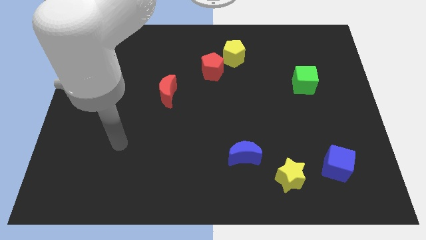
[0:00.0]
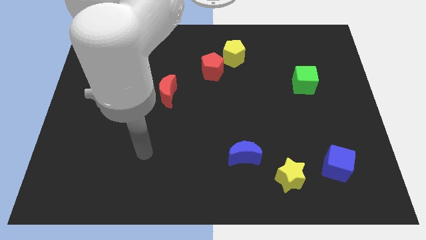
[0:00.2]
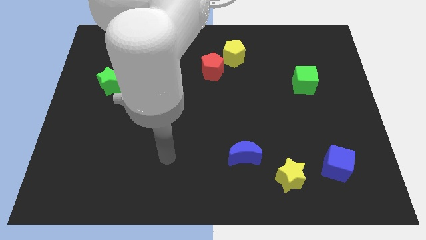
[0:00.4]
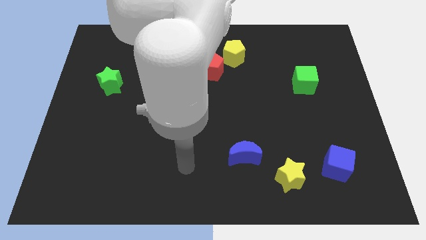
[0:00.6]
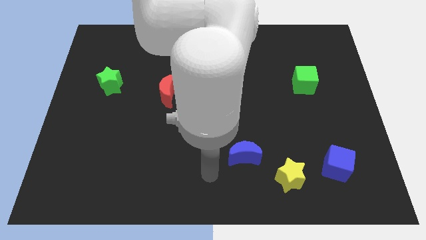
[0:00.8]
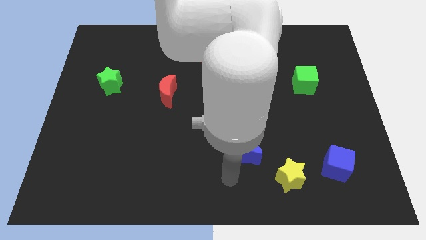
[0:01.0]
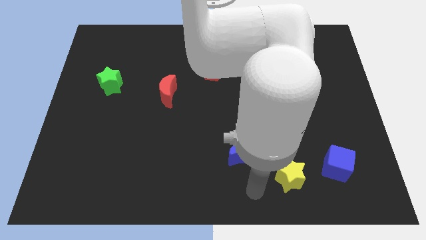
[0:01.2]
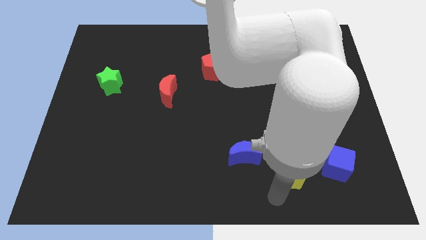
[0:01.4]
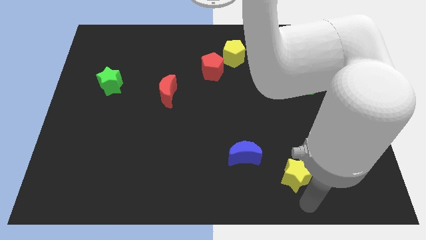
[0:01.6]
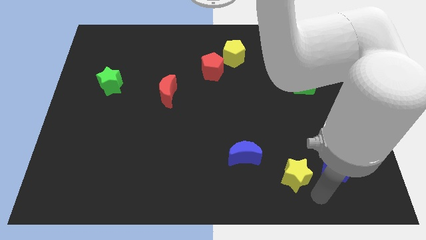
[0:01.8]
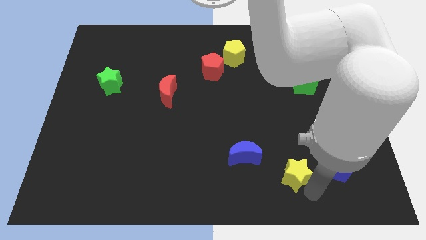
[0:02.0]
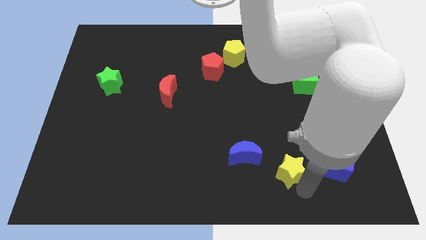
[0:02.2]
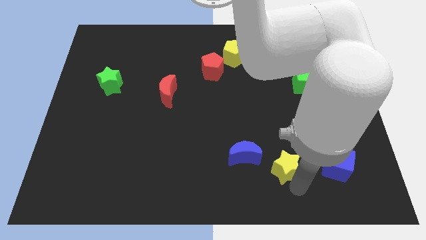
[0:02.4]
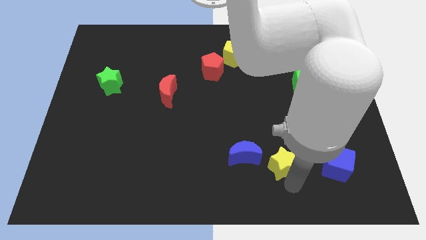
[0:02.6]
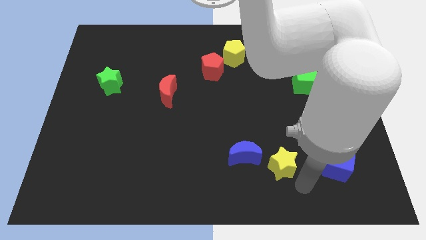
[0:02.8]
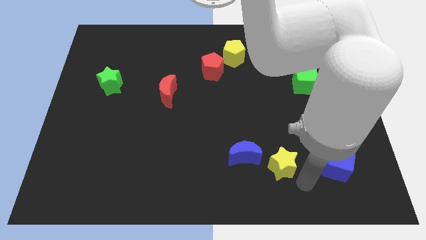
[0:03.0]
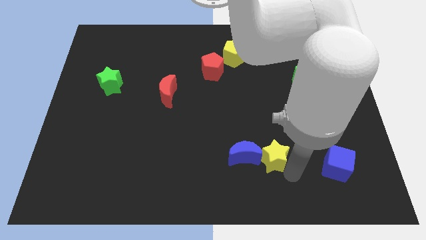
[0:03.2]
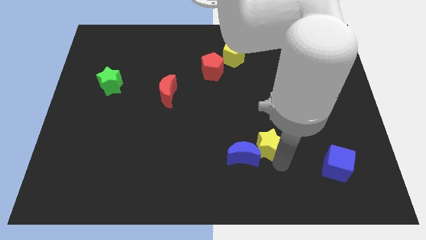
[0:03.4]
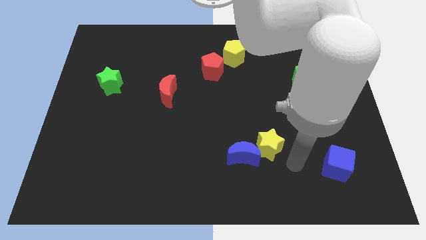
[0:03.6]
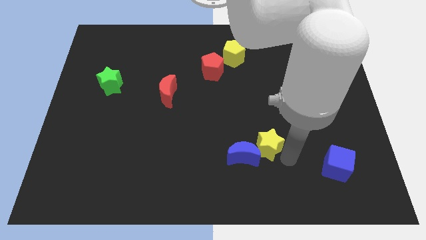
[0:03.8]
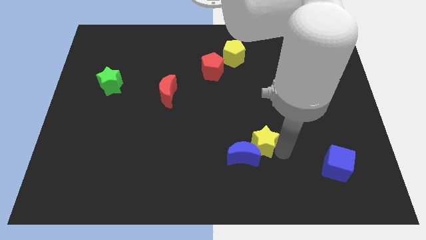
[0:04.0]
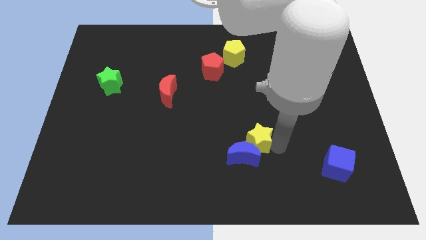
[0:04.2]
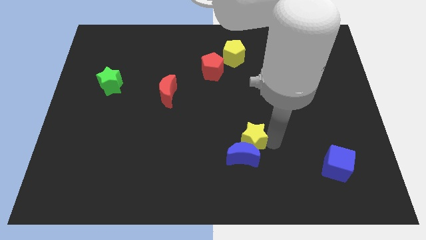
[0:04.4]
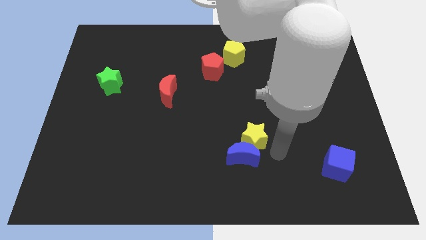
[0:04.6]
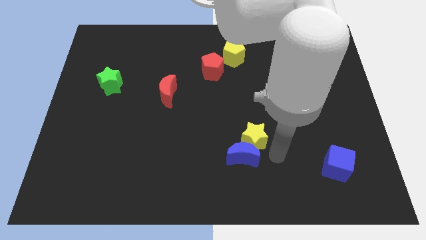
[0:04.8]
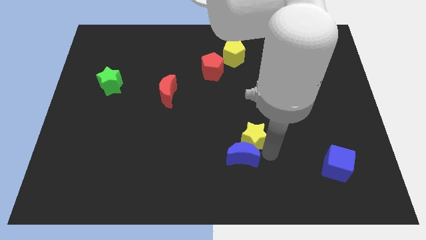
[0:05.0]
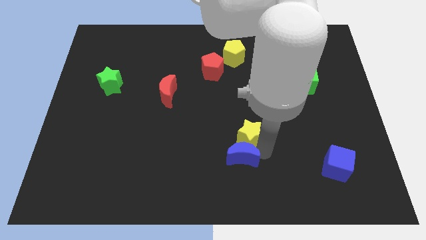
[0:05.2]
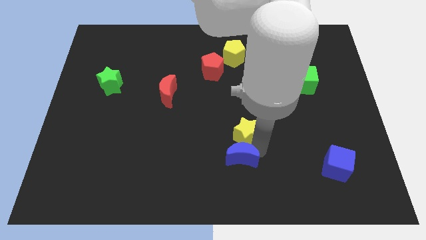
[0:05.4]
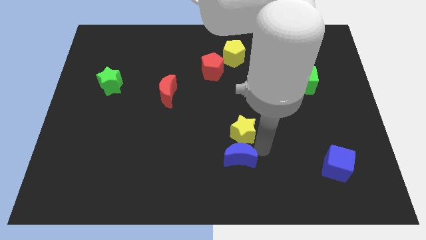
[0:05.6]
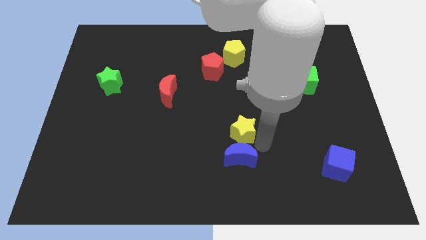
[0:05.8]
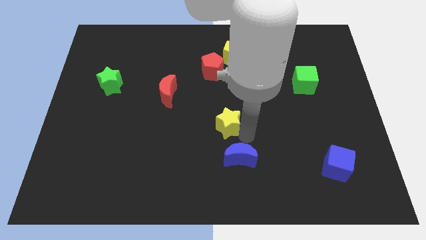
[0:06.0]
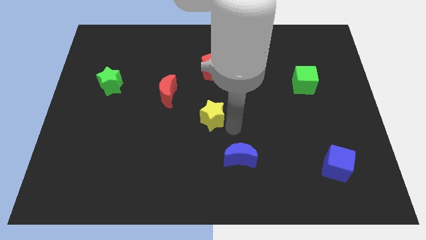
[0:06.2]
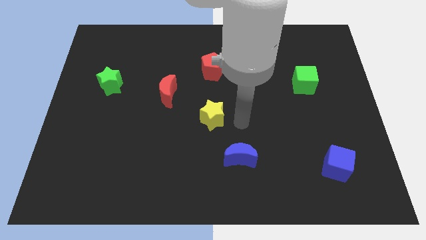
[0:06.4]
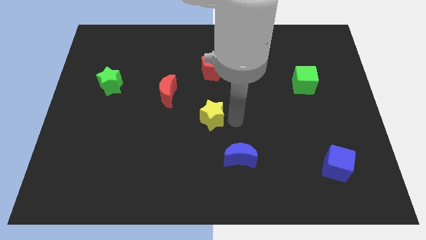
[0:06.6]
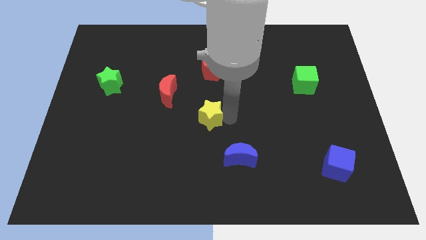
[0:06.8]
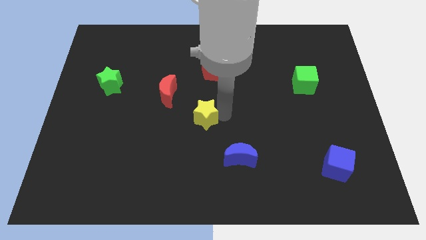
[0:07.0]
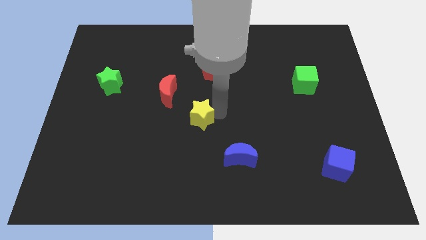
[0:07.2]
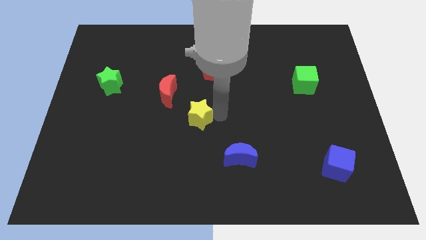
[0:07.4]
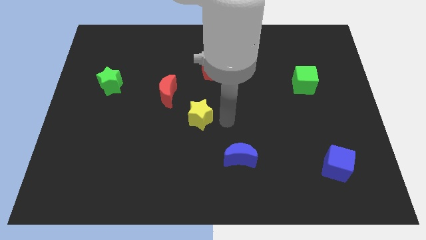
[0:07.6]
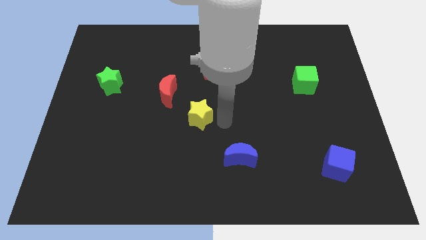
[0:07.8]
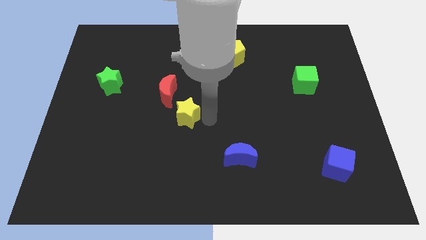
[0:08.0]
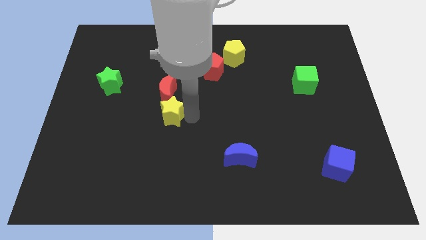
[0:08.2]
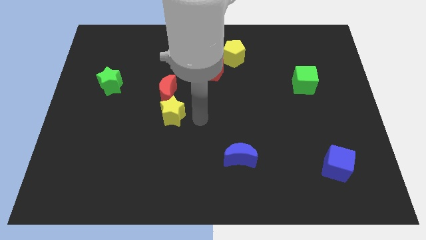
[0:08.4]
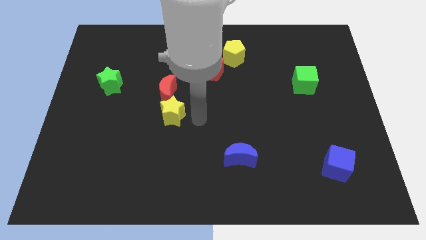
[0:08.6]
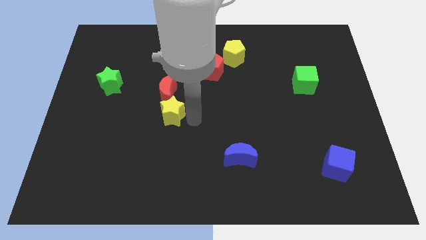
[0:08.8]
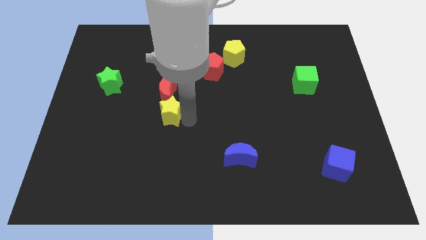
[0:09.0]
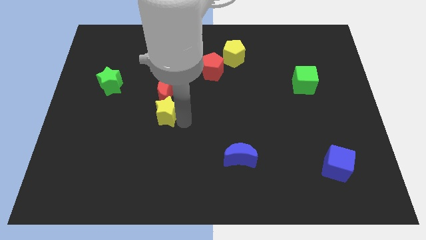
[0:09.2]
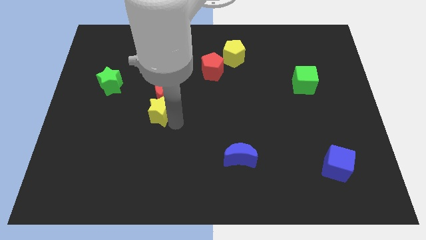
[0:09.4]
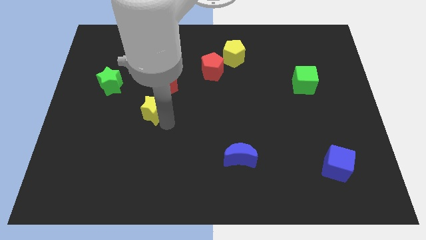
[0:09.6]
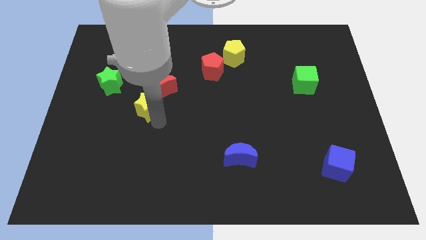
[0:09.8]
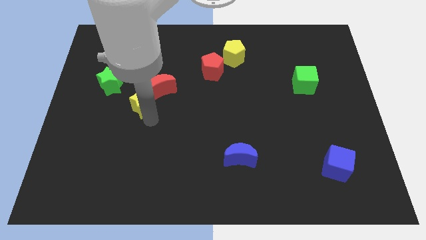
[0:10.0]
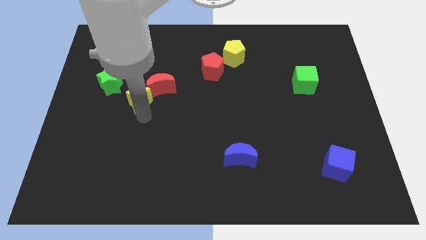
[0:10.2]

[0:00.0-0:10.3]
slide the yellow star just left of the red moon

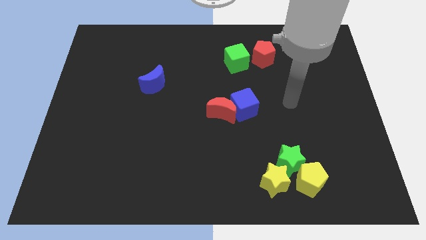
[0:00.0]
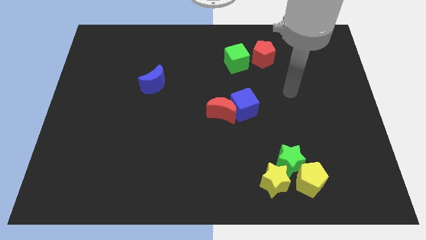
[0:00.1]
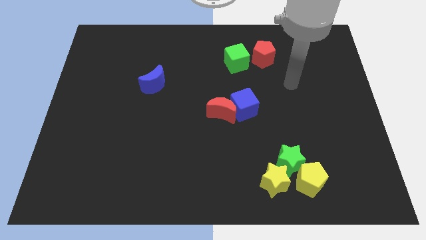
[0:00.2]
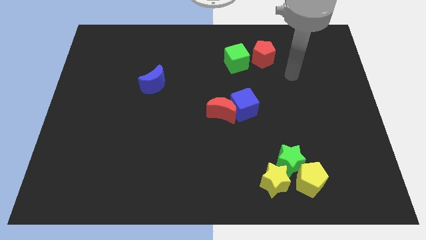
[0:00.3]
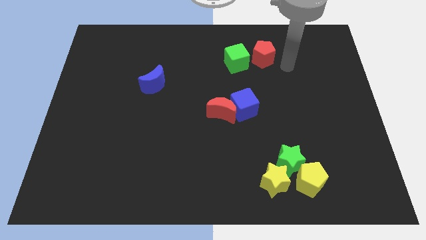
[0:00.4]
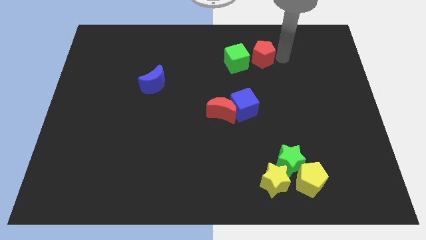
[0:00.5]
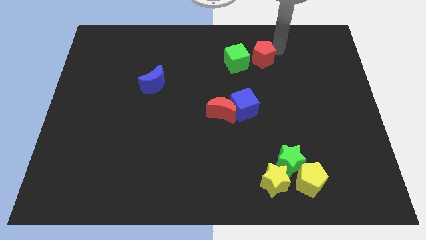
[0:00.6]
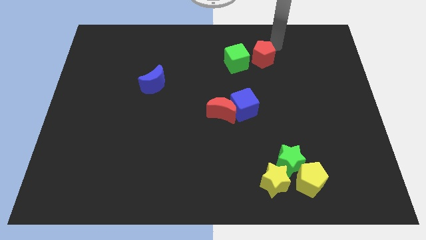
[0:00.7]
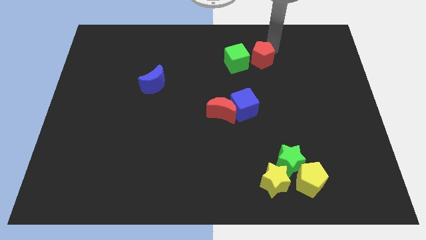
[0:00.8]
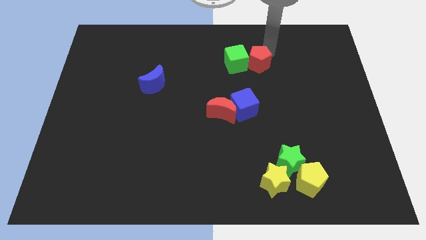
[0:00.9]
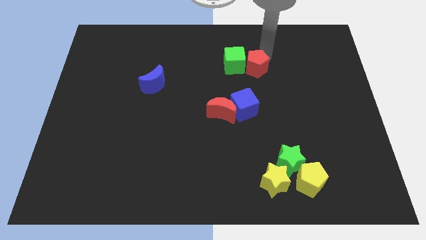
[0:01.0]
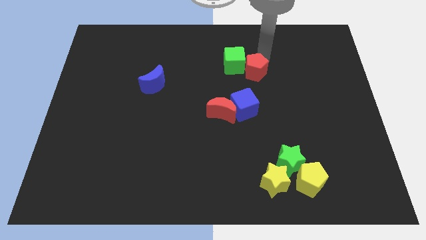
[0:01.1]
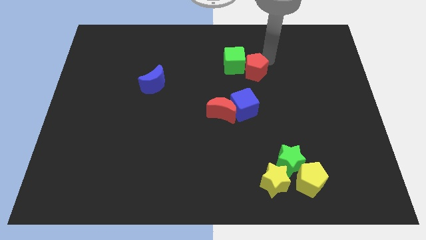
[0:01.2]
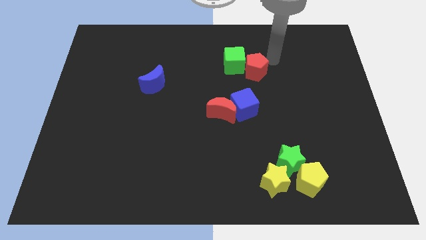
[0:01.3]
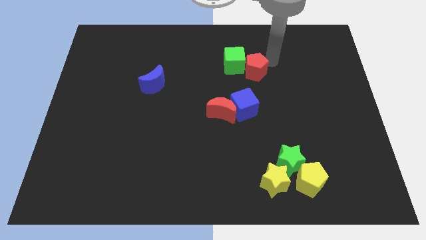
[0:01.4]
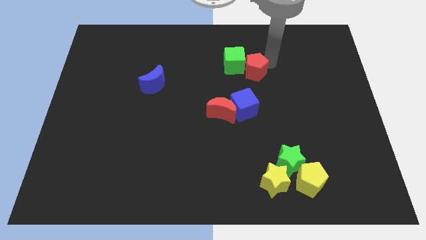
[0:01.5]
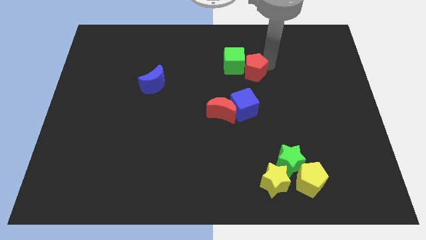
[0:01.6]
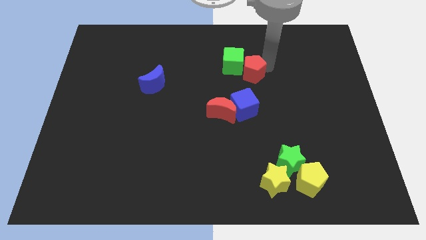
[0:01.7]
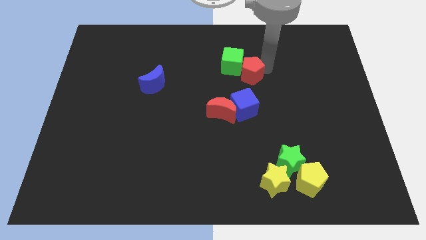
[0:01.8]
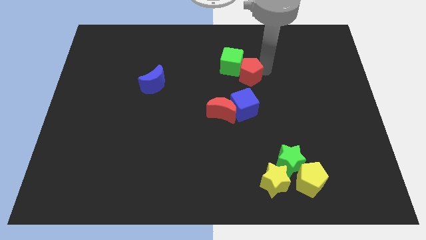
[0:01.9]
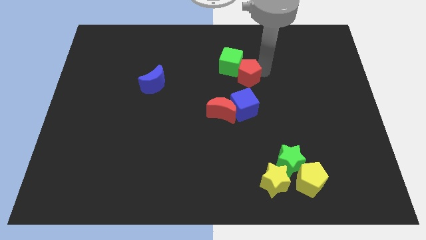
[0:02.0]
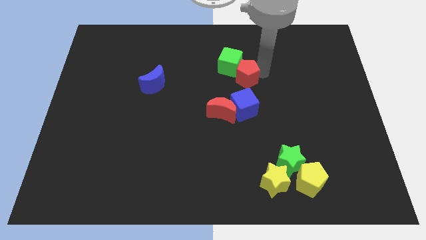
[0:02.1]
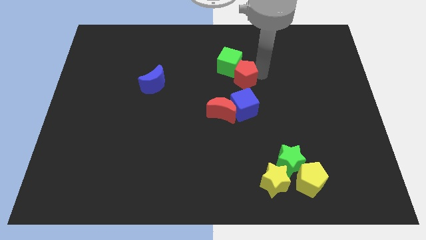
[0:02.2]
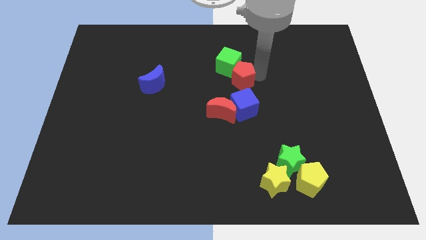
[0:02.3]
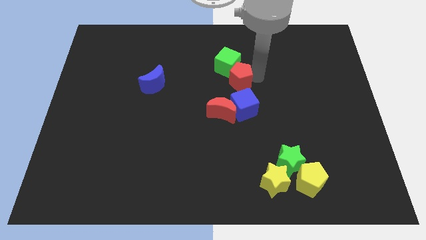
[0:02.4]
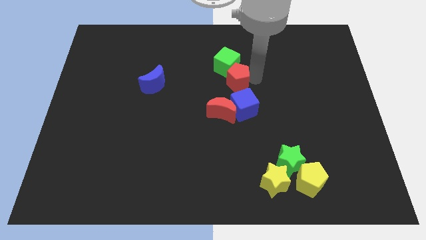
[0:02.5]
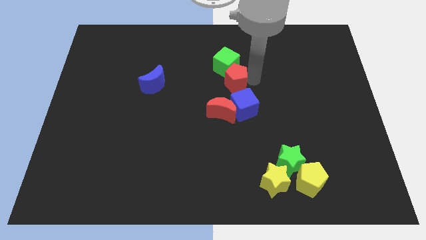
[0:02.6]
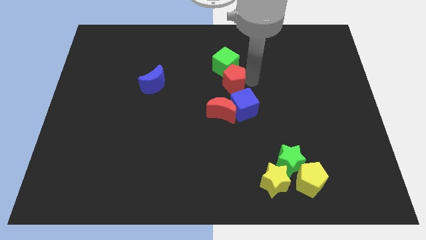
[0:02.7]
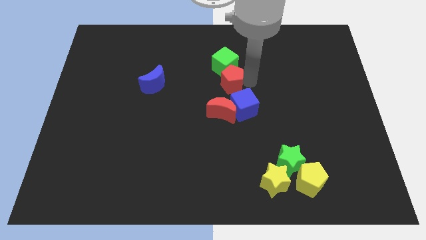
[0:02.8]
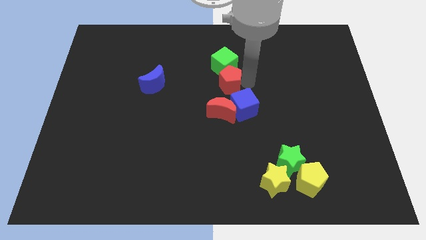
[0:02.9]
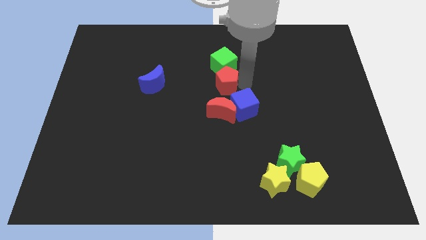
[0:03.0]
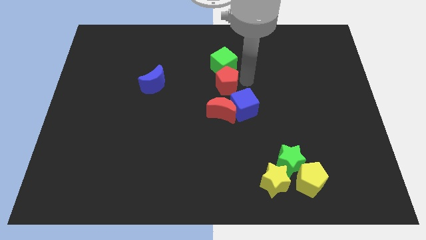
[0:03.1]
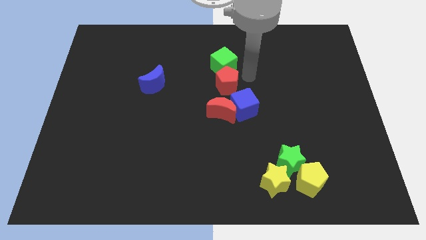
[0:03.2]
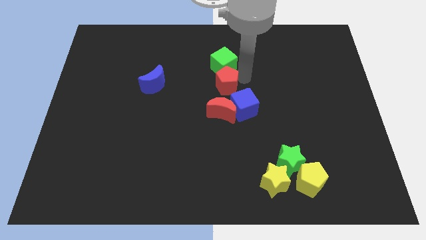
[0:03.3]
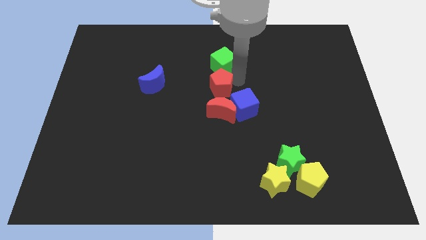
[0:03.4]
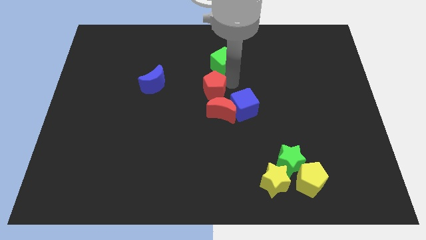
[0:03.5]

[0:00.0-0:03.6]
push the red pentagon to the top left side of the red moon
